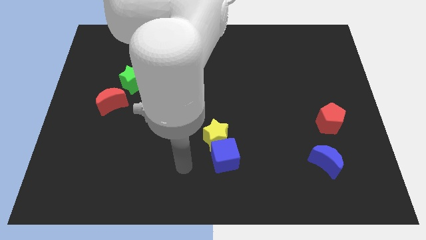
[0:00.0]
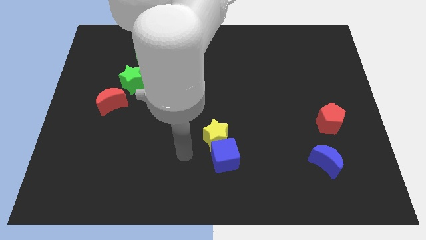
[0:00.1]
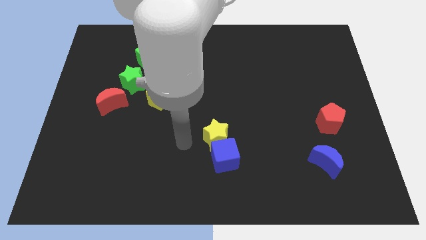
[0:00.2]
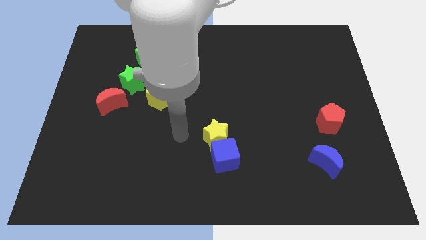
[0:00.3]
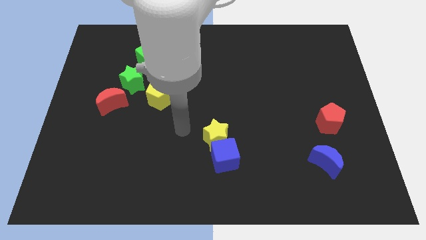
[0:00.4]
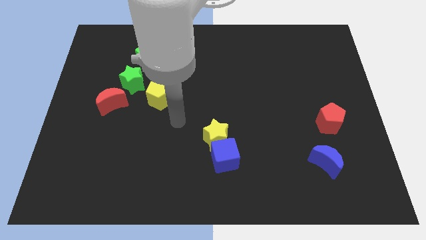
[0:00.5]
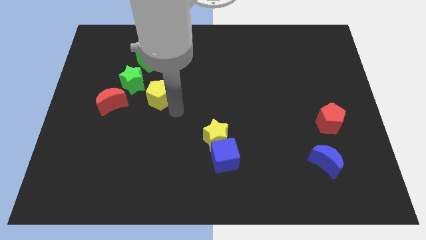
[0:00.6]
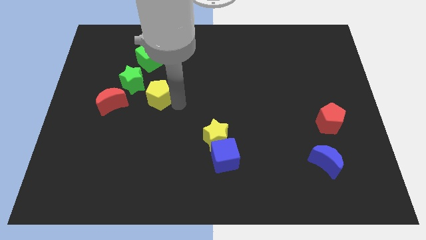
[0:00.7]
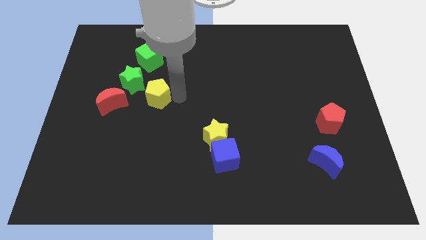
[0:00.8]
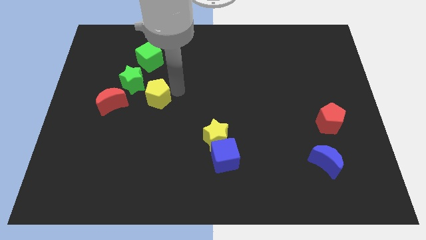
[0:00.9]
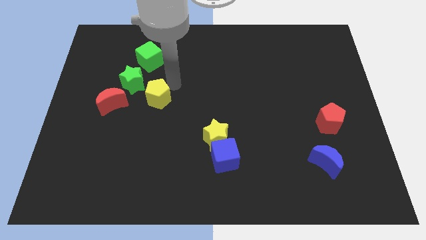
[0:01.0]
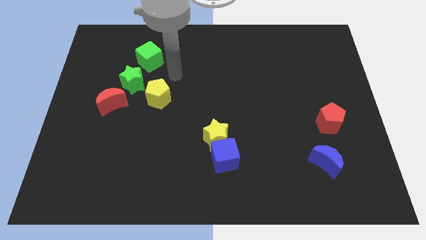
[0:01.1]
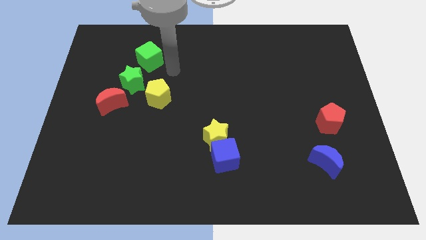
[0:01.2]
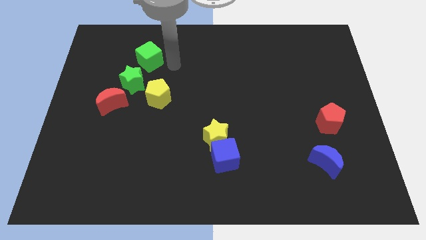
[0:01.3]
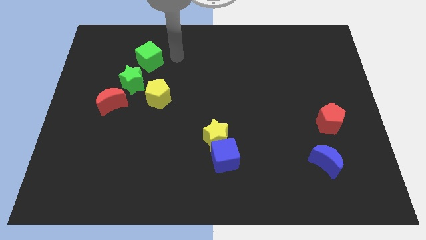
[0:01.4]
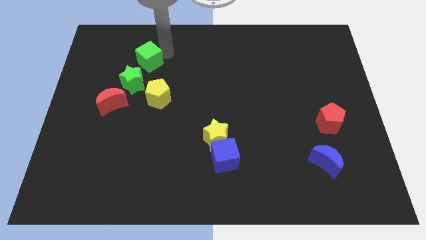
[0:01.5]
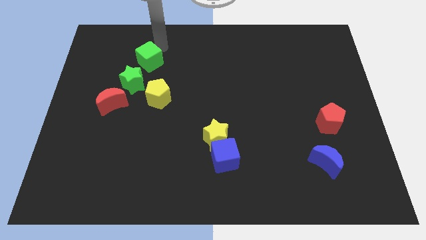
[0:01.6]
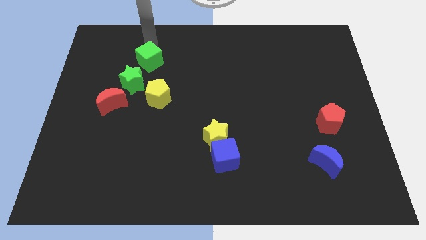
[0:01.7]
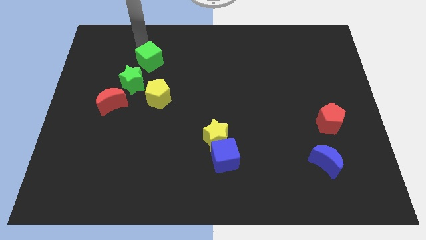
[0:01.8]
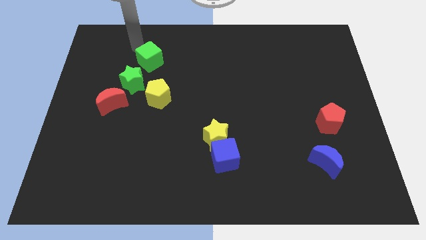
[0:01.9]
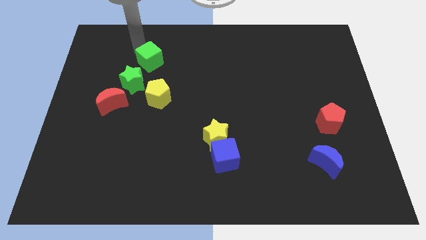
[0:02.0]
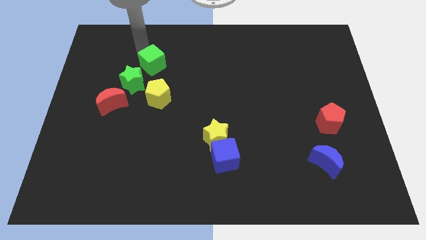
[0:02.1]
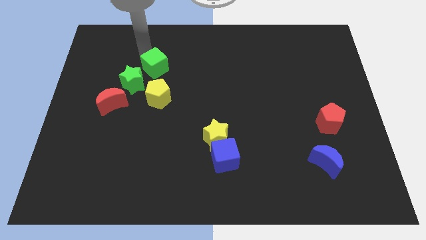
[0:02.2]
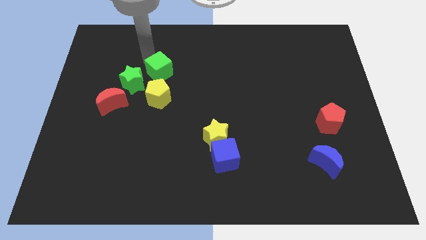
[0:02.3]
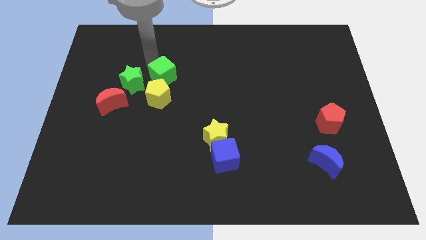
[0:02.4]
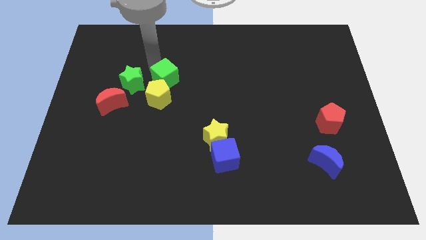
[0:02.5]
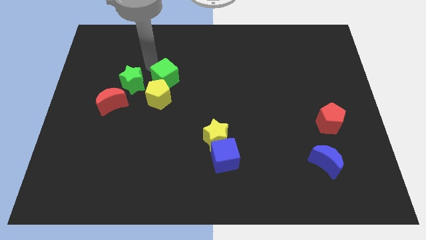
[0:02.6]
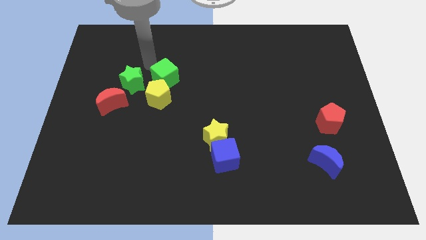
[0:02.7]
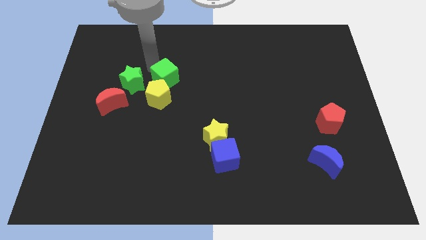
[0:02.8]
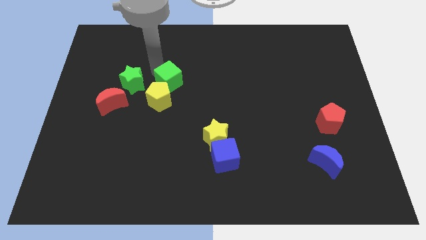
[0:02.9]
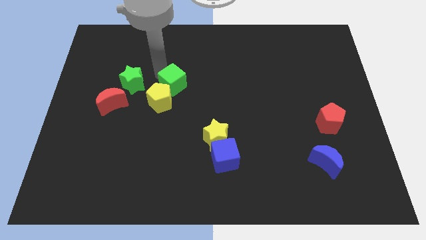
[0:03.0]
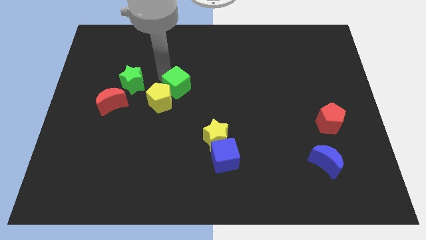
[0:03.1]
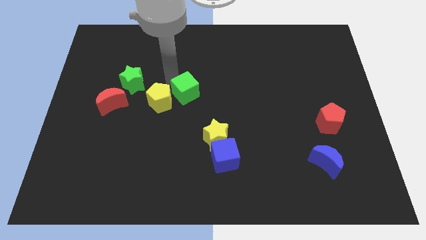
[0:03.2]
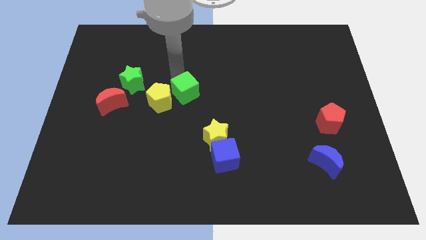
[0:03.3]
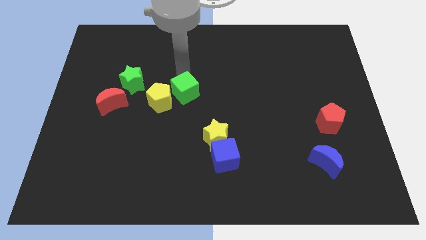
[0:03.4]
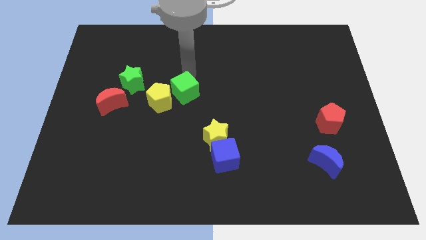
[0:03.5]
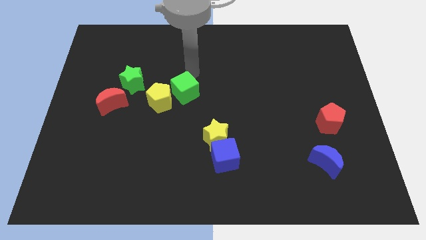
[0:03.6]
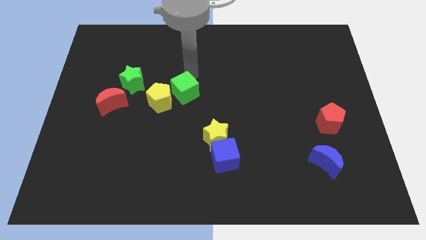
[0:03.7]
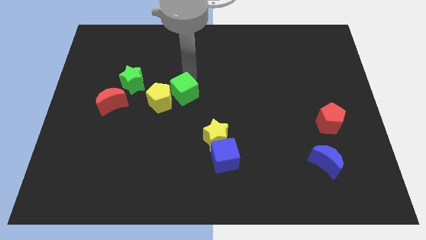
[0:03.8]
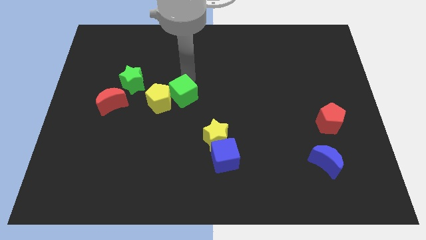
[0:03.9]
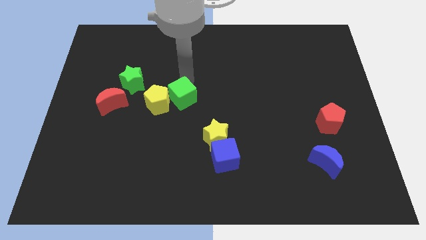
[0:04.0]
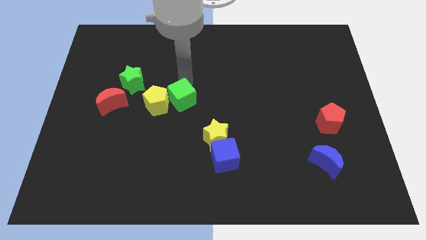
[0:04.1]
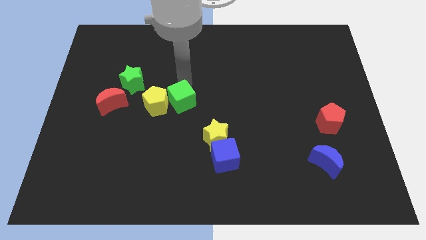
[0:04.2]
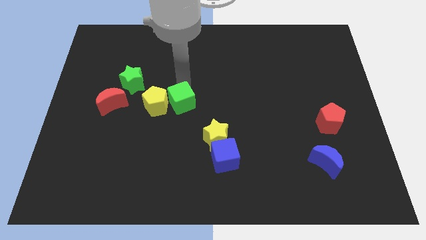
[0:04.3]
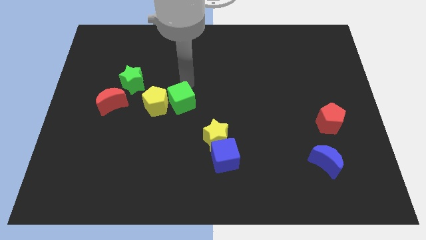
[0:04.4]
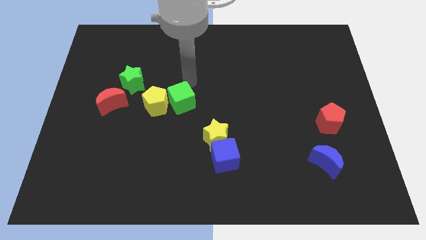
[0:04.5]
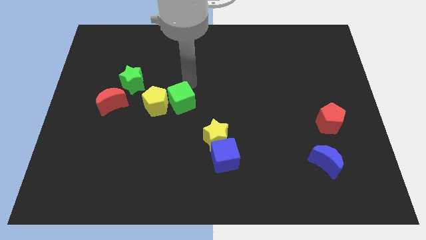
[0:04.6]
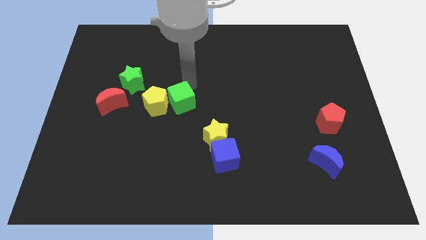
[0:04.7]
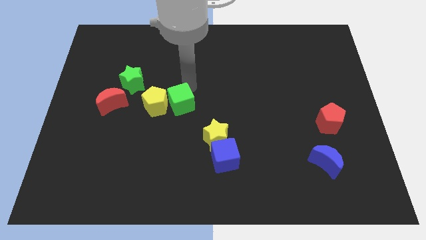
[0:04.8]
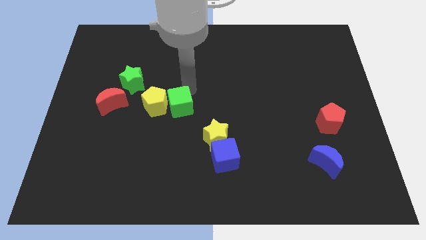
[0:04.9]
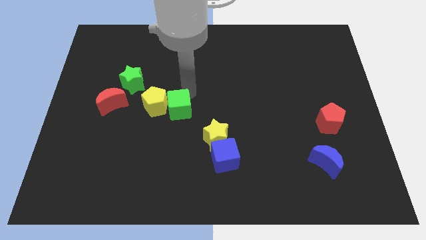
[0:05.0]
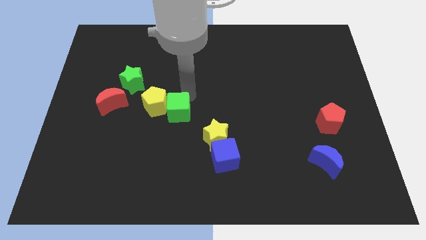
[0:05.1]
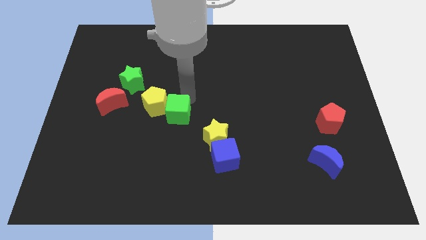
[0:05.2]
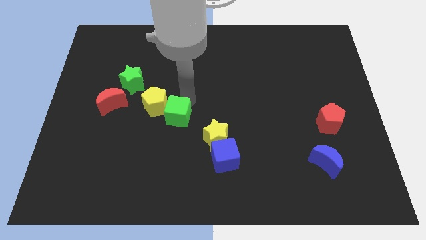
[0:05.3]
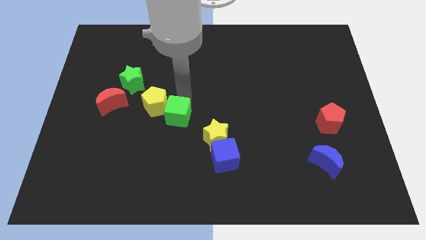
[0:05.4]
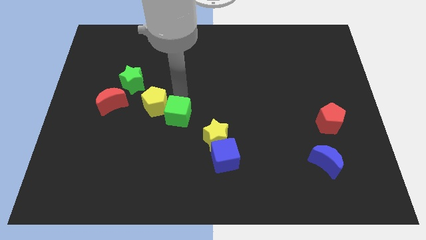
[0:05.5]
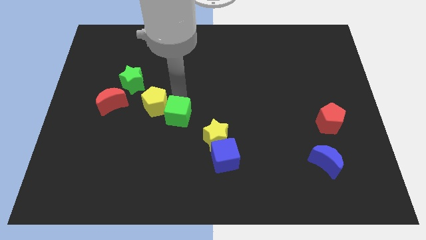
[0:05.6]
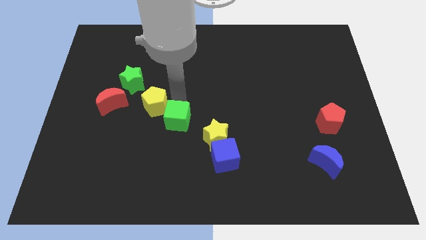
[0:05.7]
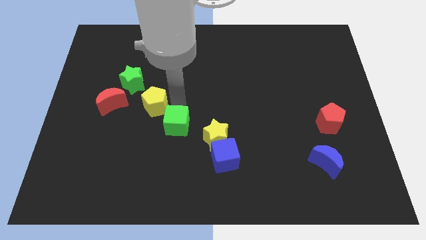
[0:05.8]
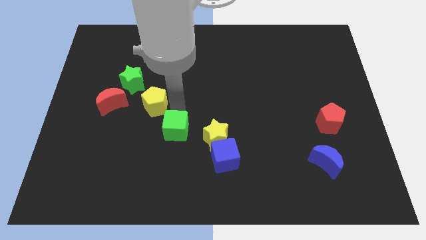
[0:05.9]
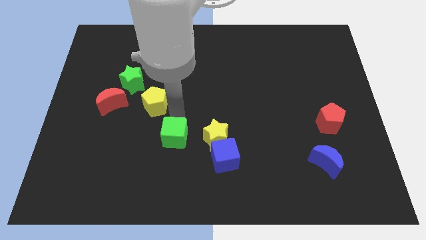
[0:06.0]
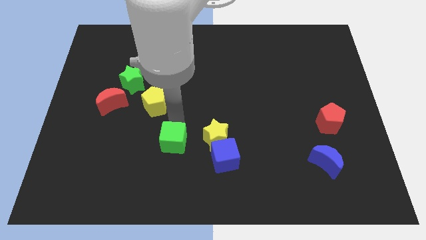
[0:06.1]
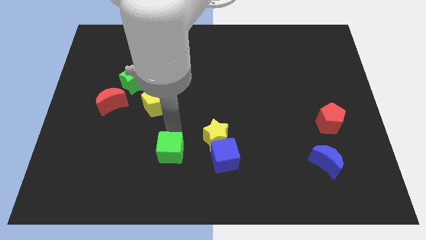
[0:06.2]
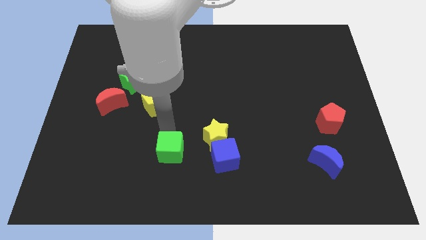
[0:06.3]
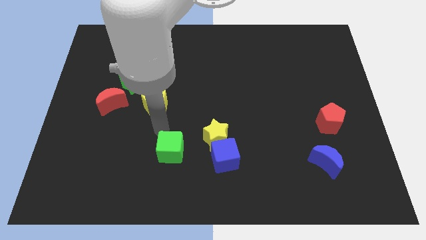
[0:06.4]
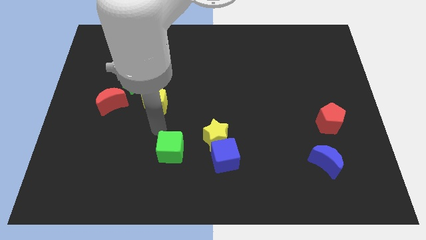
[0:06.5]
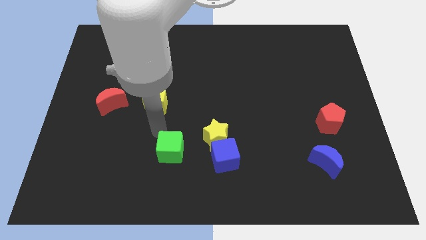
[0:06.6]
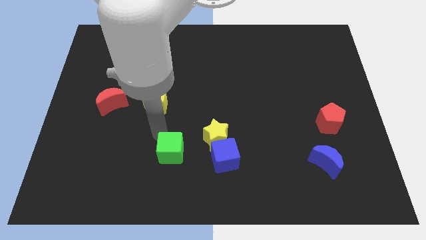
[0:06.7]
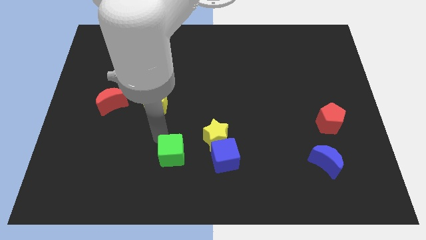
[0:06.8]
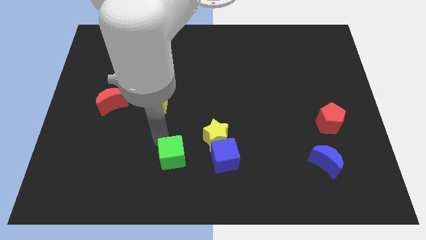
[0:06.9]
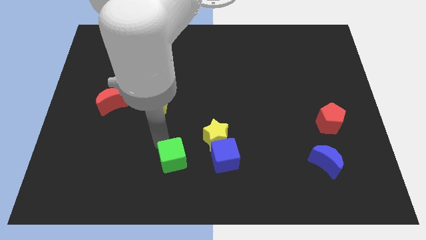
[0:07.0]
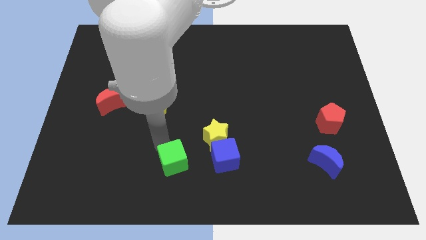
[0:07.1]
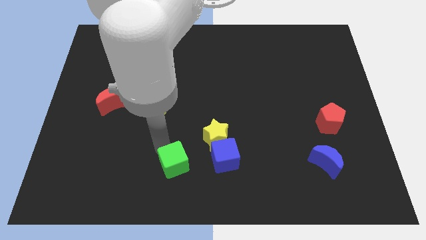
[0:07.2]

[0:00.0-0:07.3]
slide the green cube to the bottom
